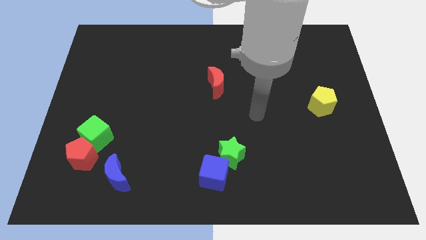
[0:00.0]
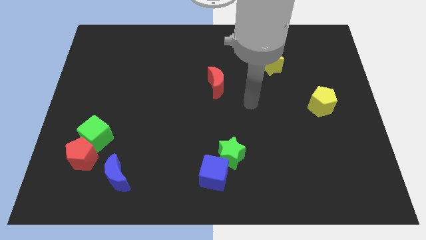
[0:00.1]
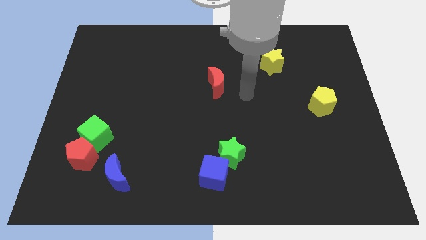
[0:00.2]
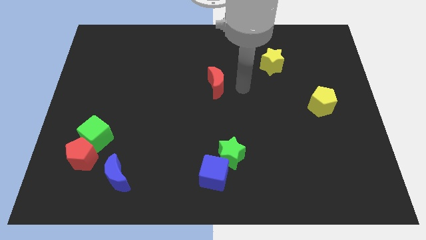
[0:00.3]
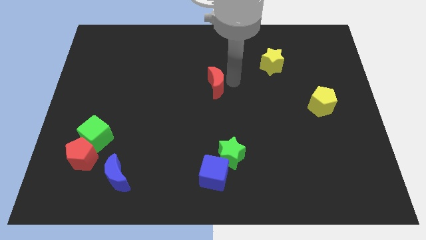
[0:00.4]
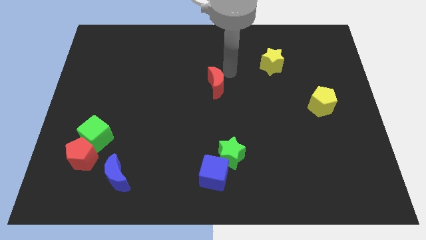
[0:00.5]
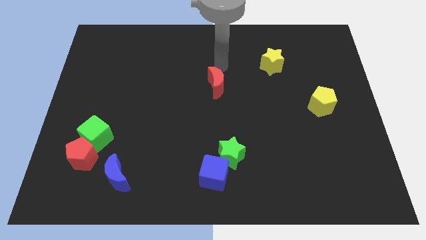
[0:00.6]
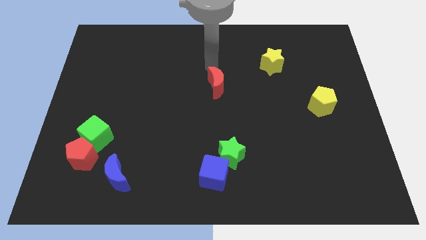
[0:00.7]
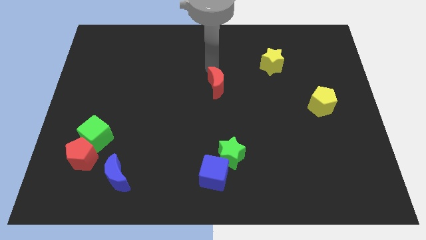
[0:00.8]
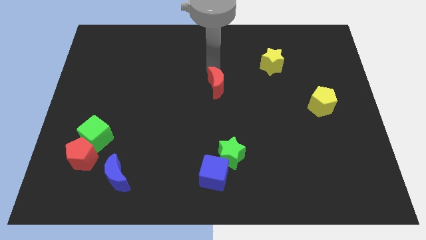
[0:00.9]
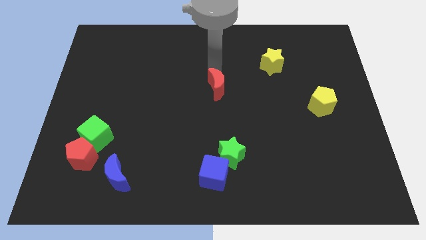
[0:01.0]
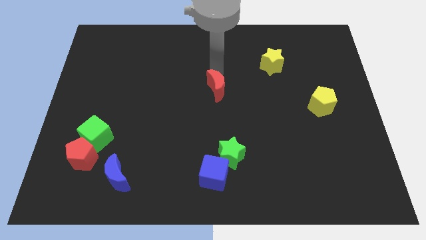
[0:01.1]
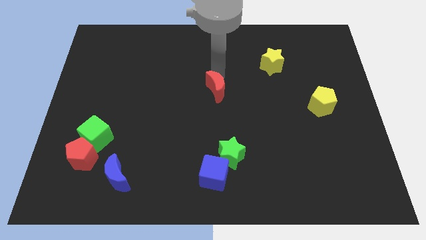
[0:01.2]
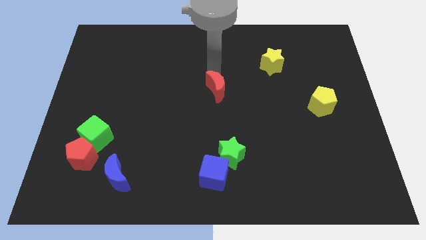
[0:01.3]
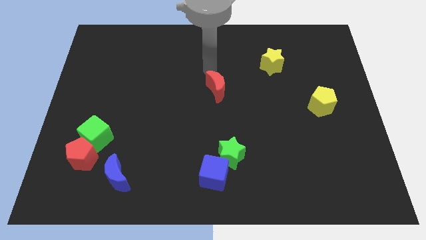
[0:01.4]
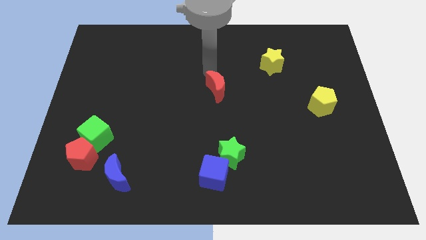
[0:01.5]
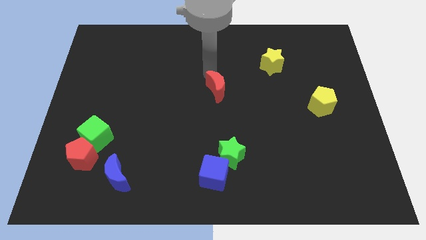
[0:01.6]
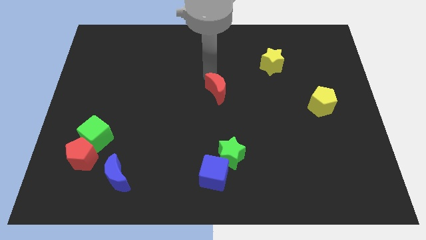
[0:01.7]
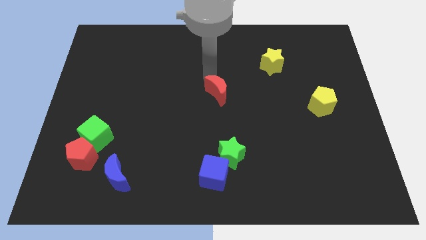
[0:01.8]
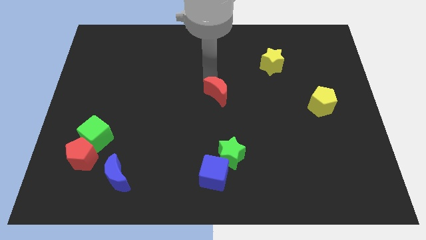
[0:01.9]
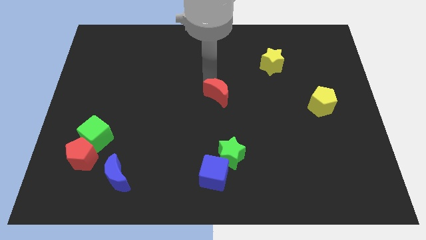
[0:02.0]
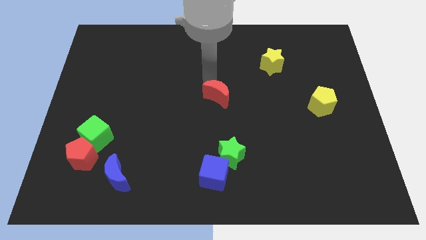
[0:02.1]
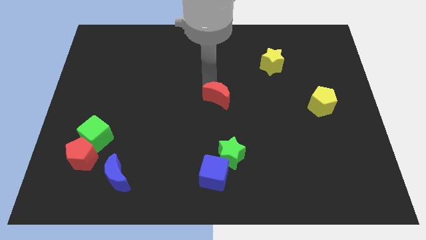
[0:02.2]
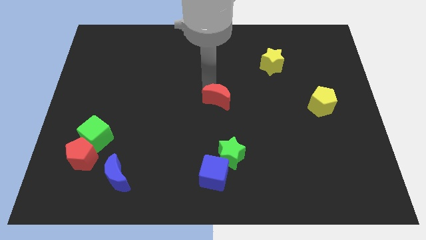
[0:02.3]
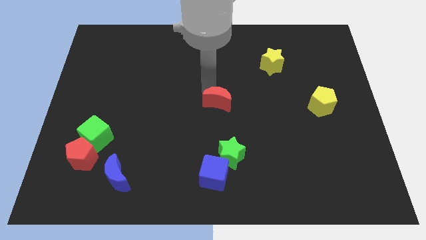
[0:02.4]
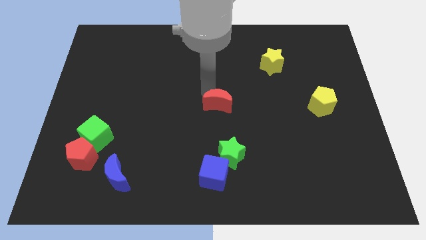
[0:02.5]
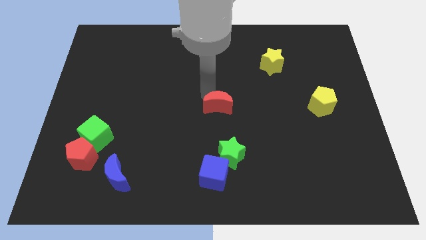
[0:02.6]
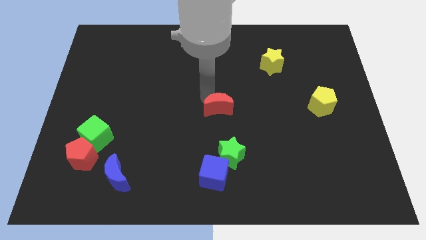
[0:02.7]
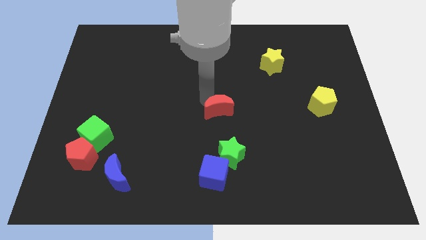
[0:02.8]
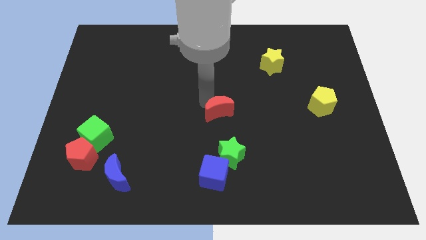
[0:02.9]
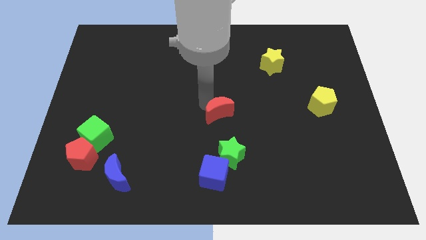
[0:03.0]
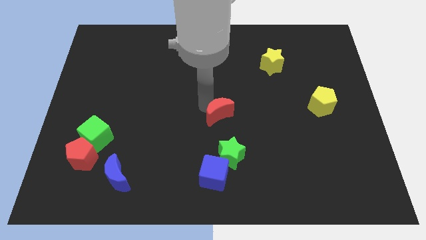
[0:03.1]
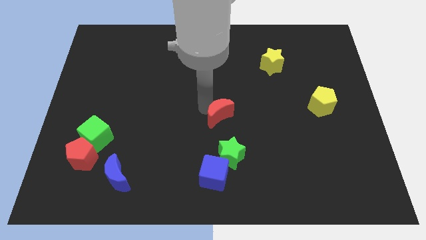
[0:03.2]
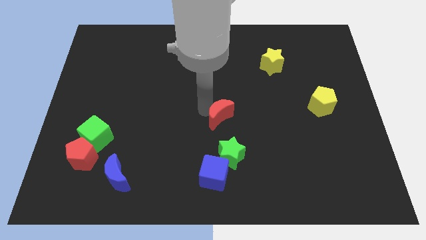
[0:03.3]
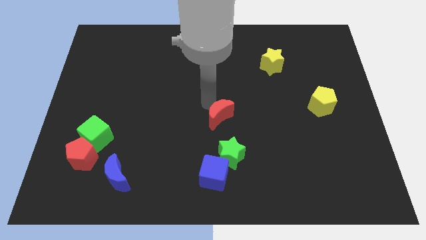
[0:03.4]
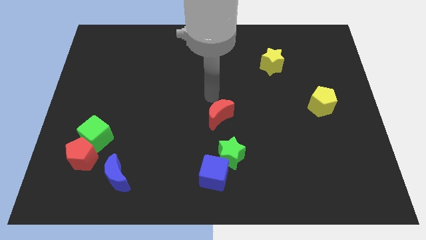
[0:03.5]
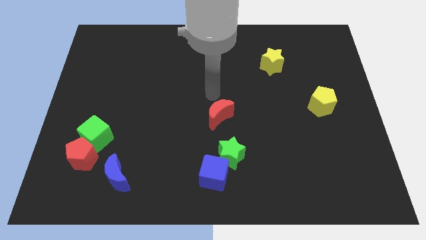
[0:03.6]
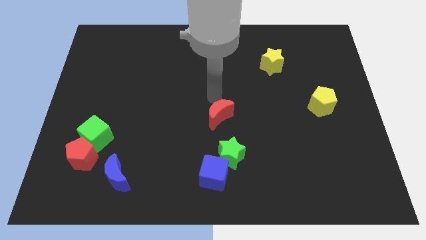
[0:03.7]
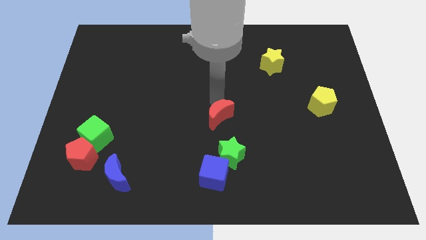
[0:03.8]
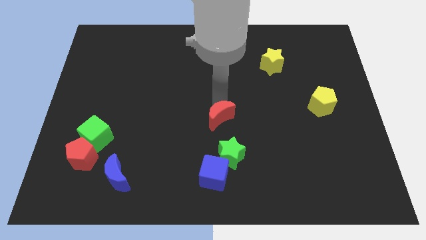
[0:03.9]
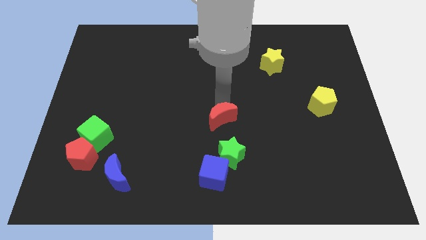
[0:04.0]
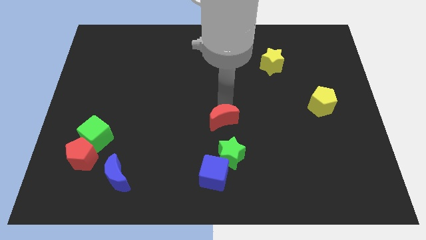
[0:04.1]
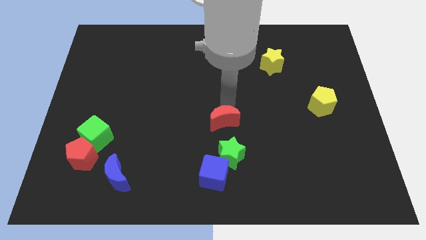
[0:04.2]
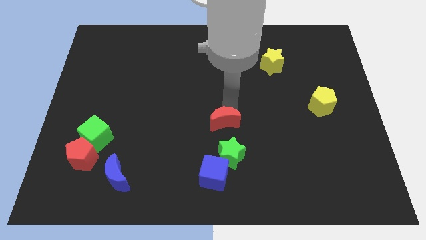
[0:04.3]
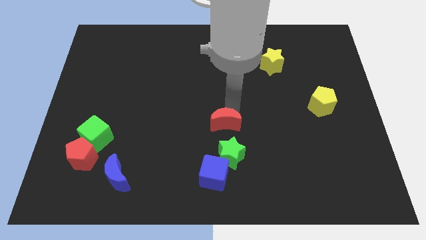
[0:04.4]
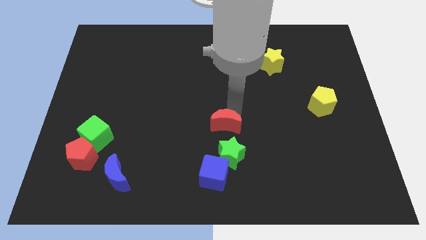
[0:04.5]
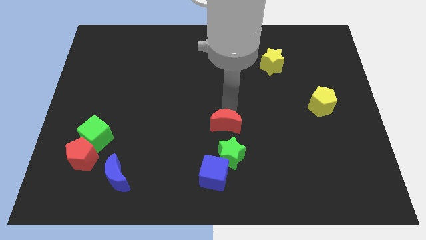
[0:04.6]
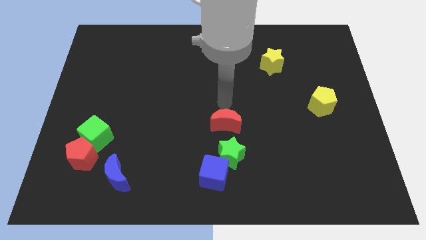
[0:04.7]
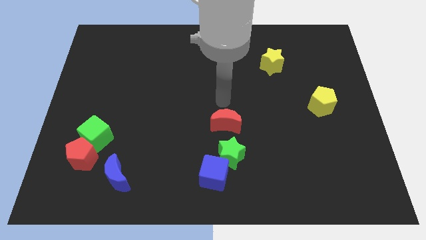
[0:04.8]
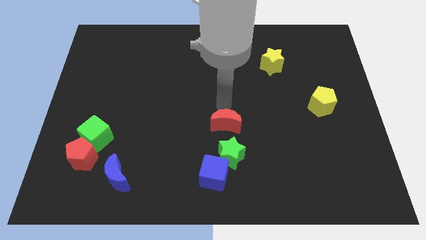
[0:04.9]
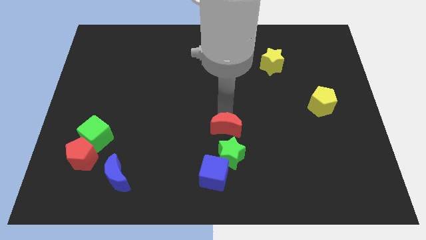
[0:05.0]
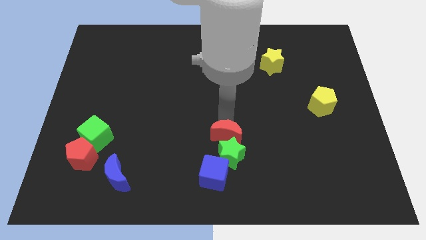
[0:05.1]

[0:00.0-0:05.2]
push the red moon close to the green star

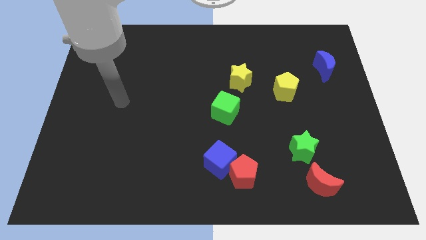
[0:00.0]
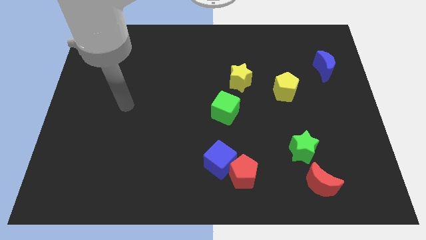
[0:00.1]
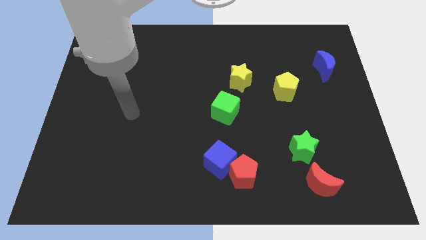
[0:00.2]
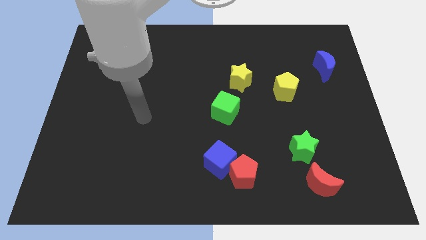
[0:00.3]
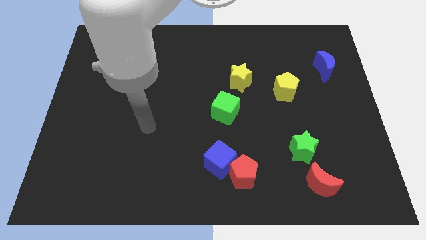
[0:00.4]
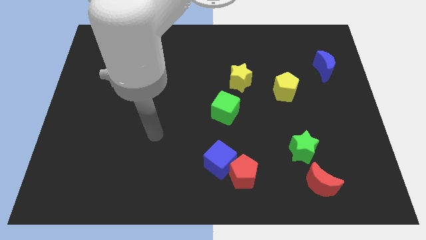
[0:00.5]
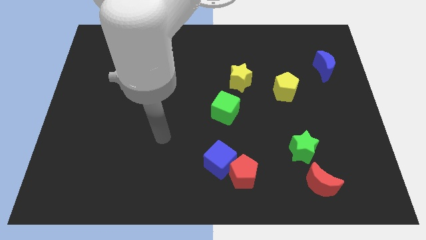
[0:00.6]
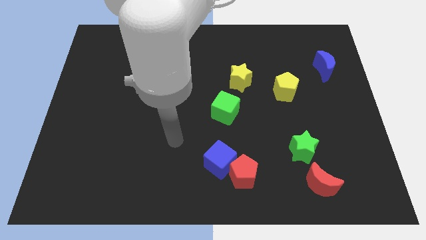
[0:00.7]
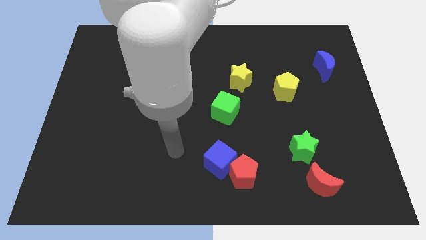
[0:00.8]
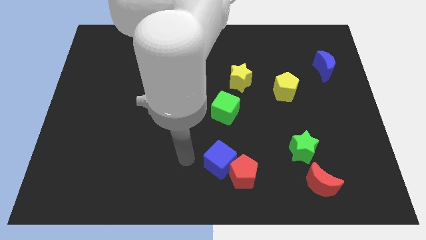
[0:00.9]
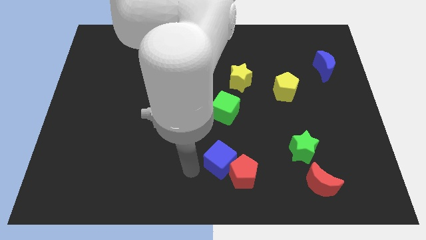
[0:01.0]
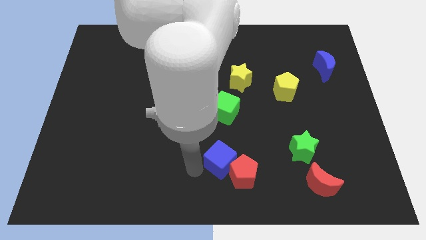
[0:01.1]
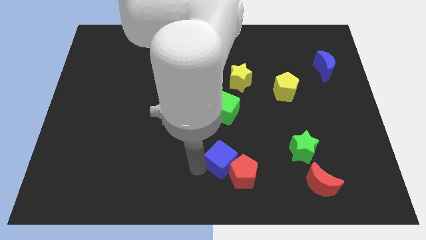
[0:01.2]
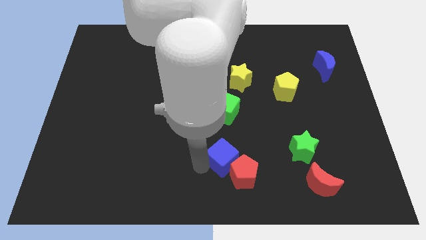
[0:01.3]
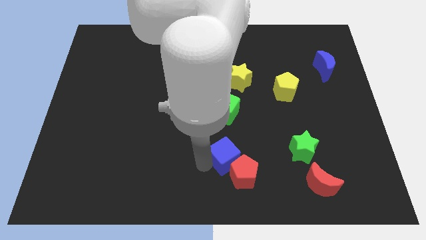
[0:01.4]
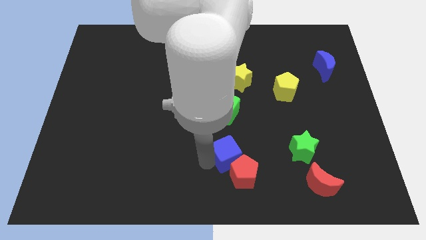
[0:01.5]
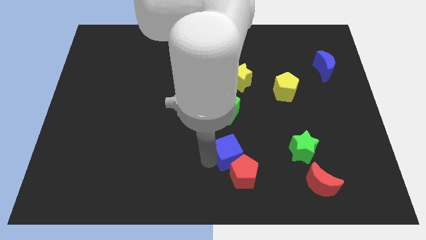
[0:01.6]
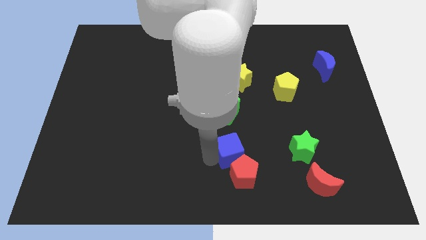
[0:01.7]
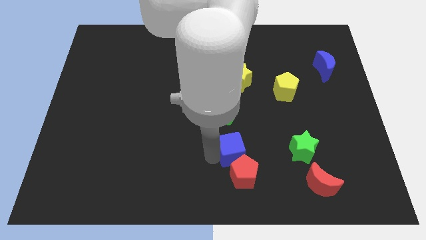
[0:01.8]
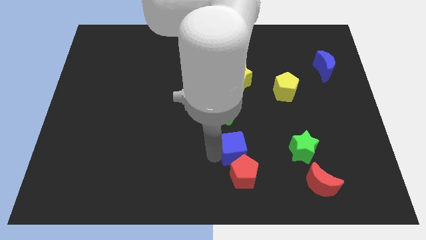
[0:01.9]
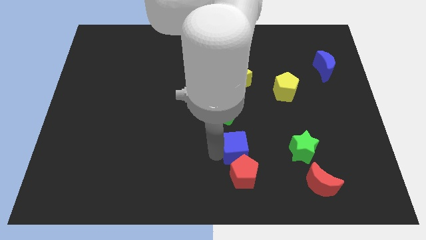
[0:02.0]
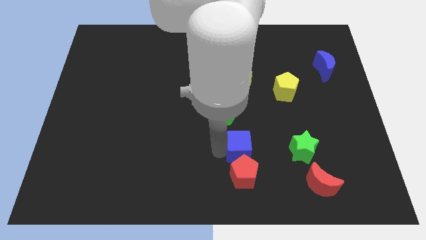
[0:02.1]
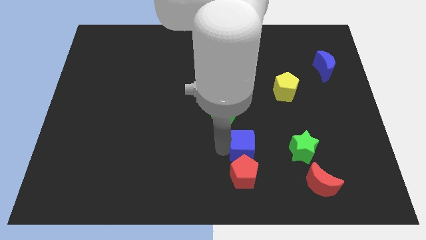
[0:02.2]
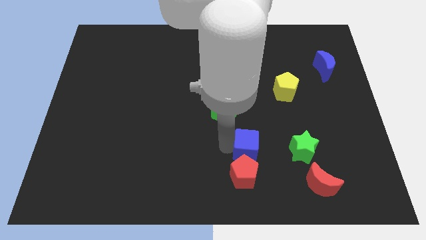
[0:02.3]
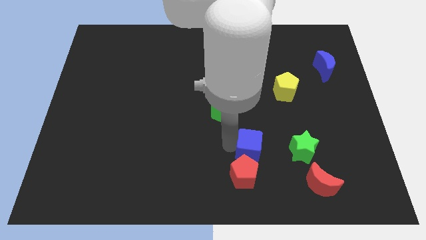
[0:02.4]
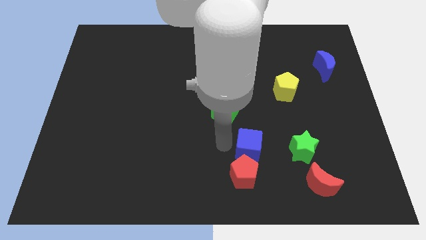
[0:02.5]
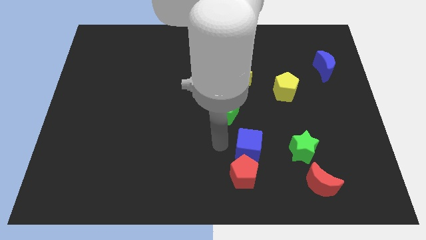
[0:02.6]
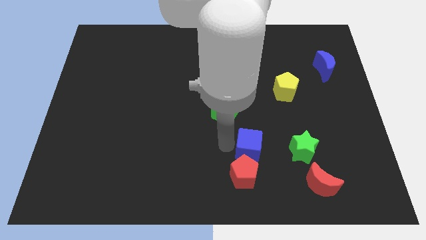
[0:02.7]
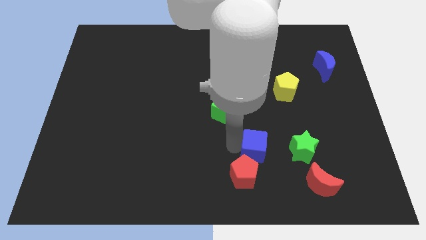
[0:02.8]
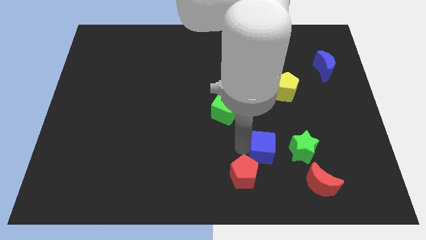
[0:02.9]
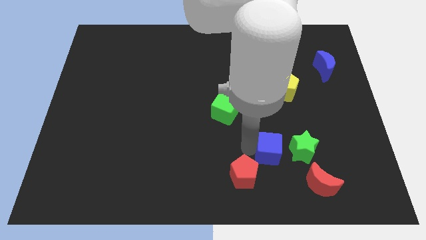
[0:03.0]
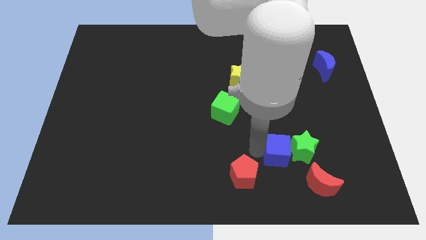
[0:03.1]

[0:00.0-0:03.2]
slide the blue cube to the green star
